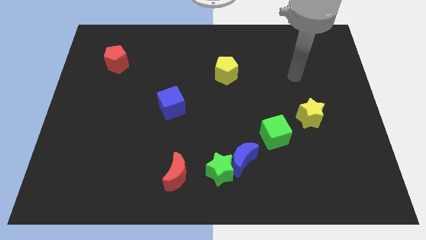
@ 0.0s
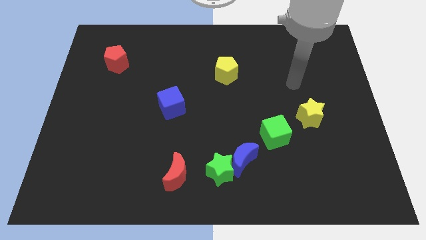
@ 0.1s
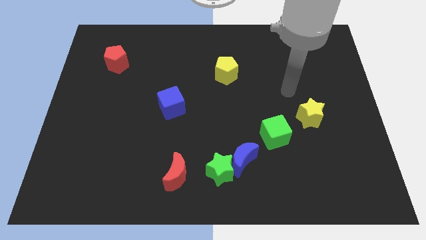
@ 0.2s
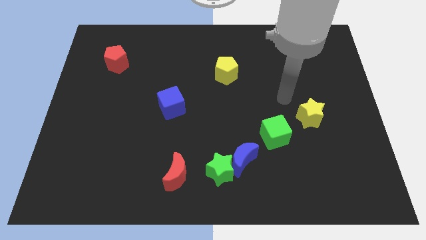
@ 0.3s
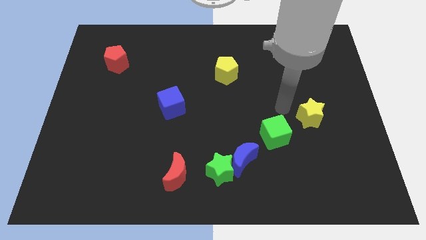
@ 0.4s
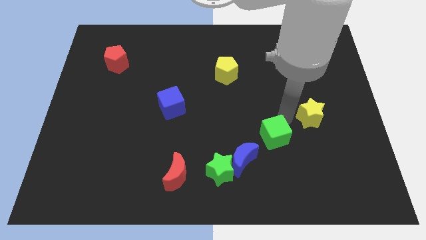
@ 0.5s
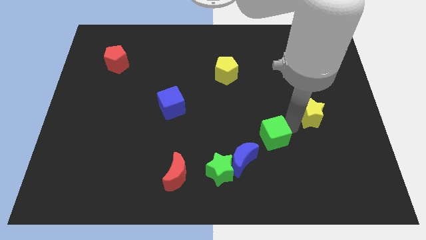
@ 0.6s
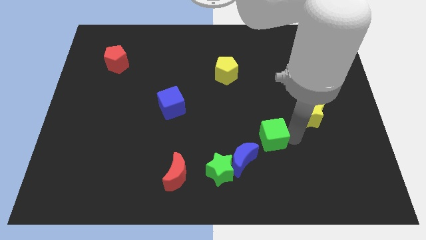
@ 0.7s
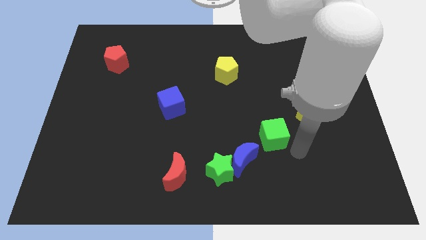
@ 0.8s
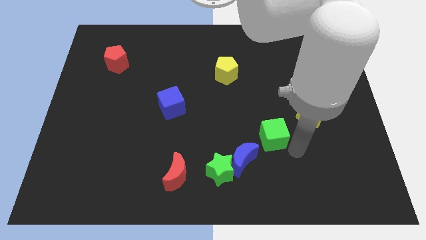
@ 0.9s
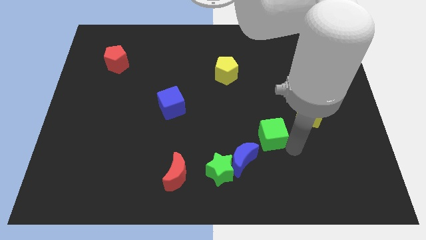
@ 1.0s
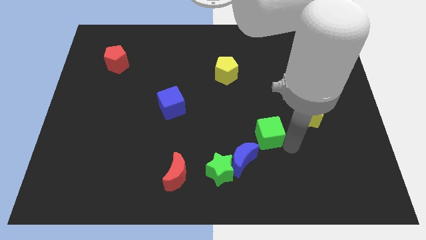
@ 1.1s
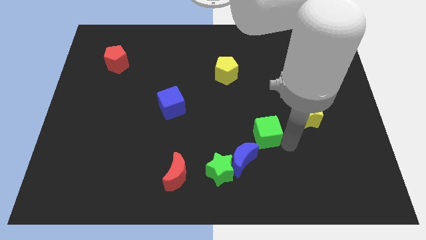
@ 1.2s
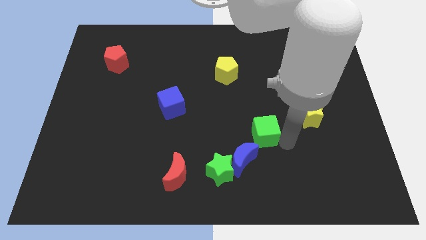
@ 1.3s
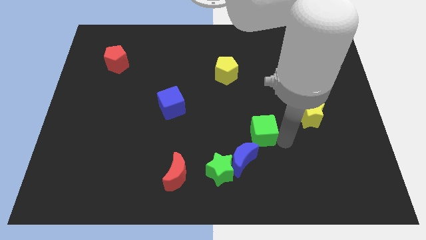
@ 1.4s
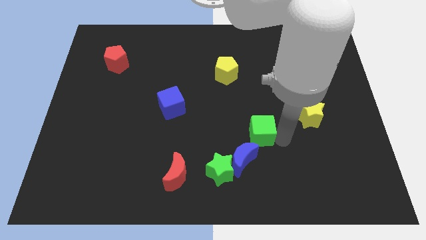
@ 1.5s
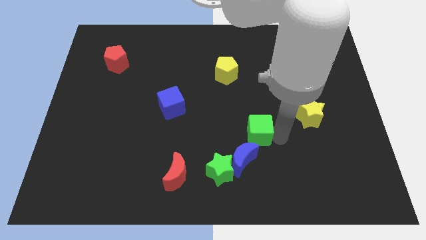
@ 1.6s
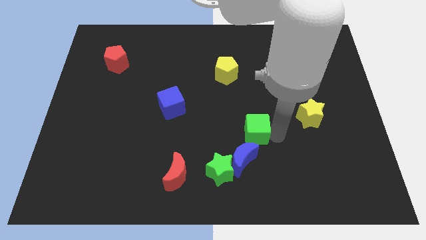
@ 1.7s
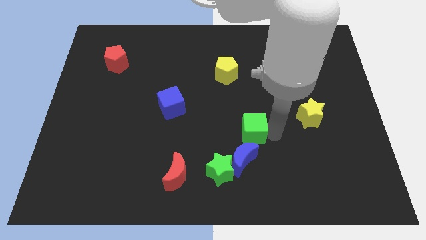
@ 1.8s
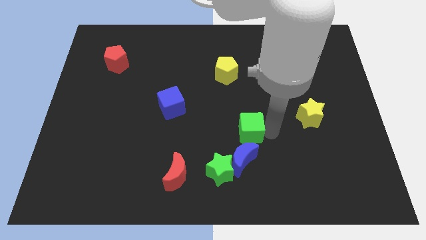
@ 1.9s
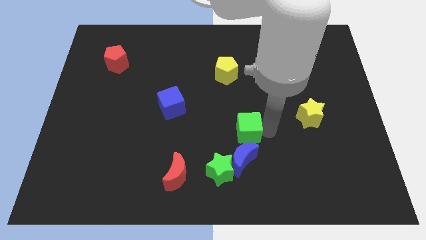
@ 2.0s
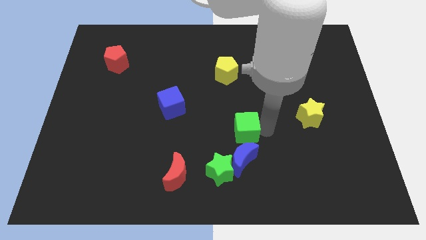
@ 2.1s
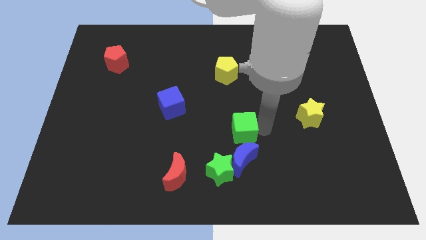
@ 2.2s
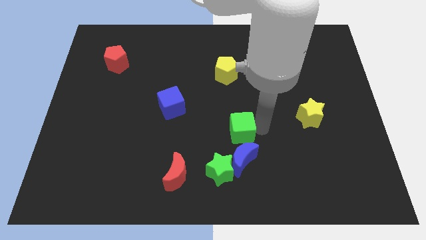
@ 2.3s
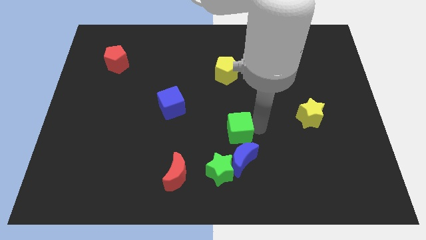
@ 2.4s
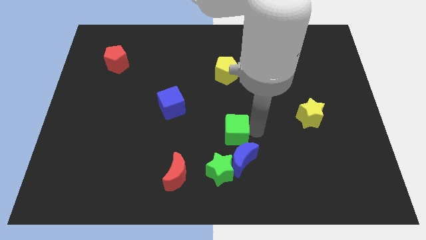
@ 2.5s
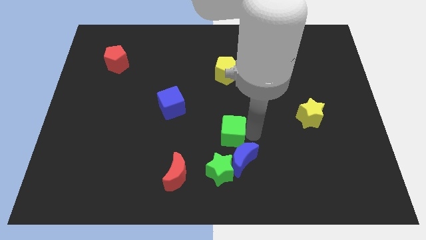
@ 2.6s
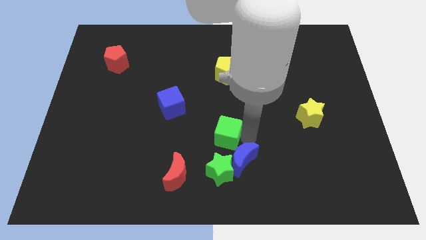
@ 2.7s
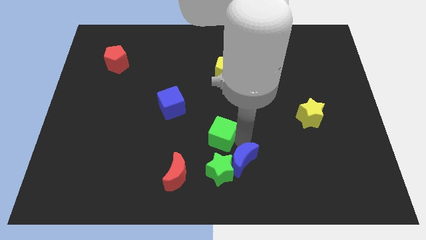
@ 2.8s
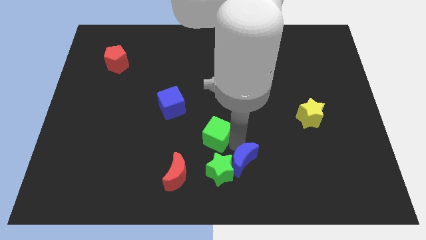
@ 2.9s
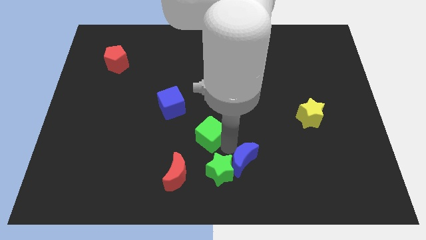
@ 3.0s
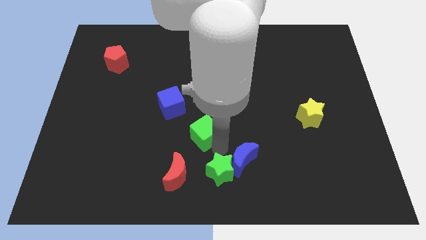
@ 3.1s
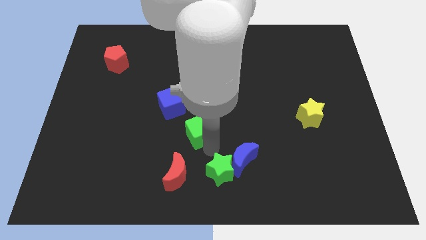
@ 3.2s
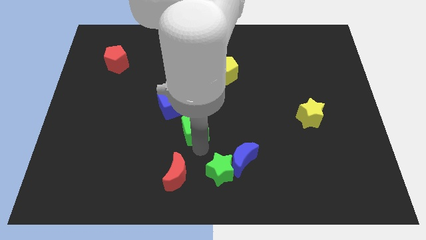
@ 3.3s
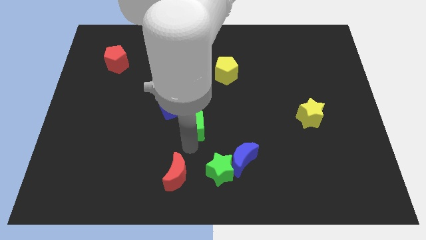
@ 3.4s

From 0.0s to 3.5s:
push the green cube diagonally up and to the left a little

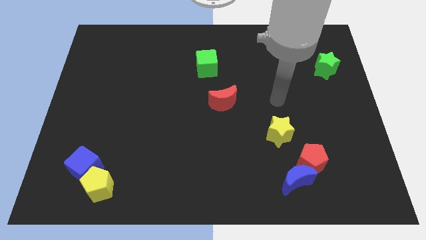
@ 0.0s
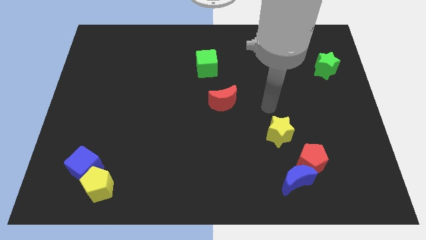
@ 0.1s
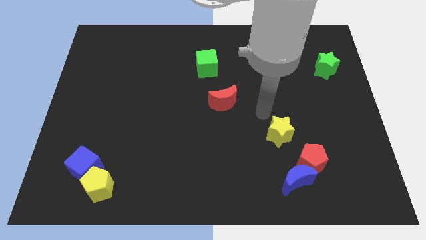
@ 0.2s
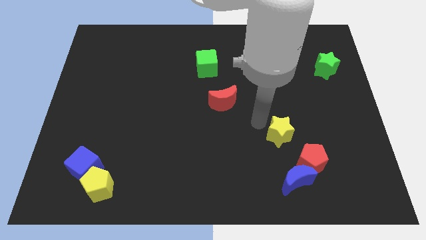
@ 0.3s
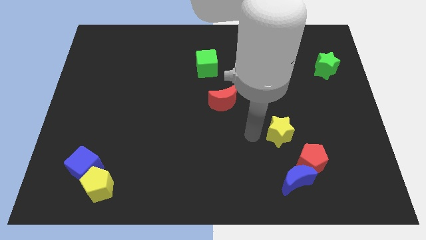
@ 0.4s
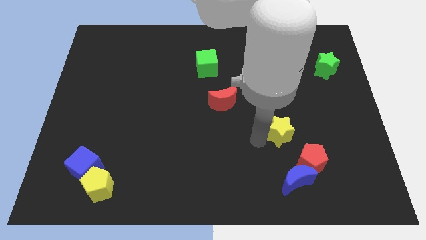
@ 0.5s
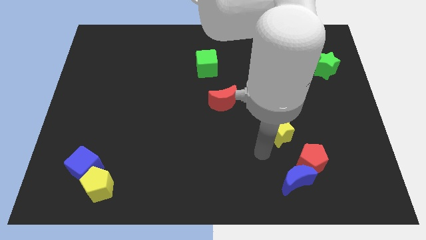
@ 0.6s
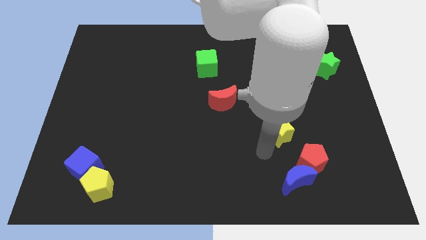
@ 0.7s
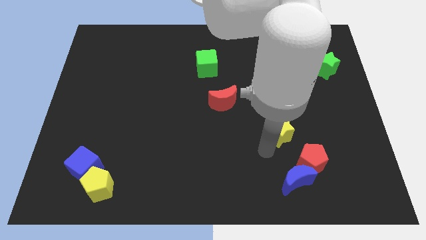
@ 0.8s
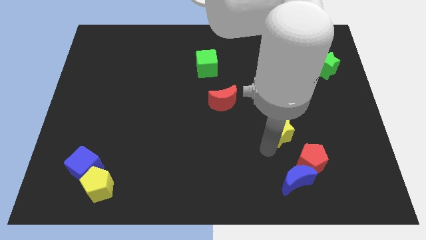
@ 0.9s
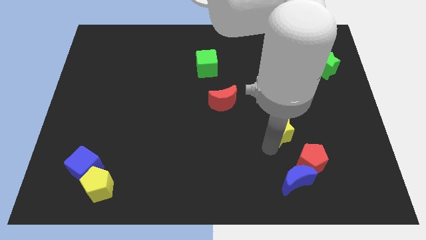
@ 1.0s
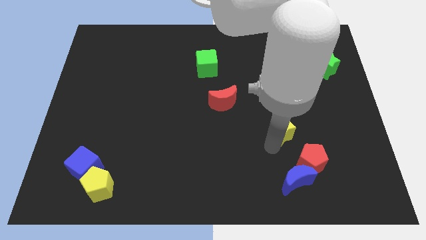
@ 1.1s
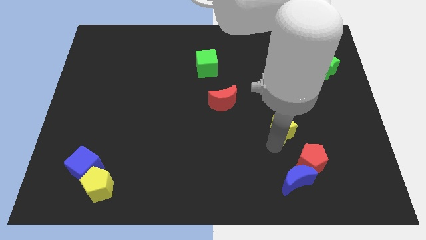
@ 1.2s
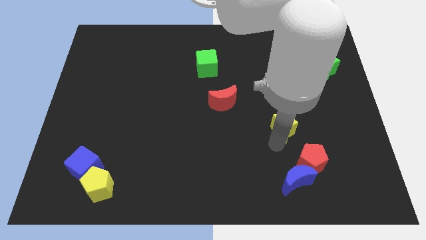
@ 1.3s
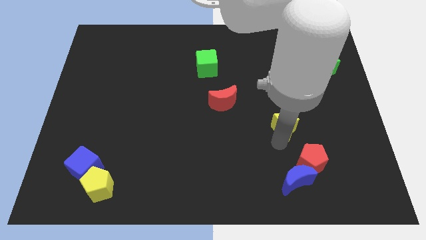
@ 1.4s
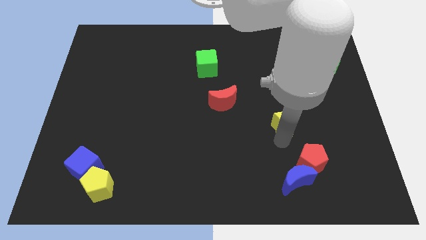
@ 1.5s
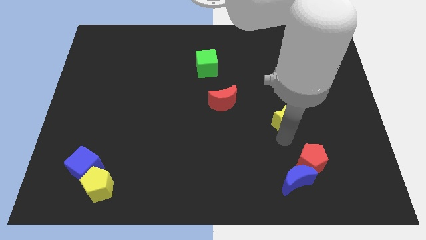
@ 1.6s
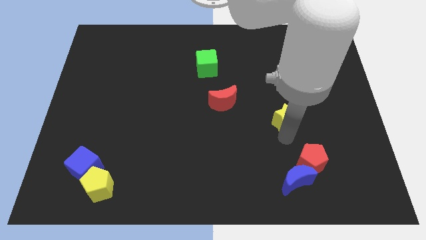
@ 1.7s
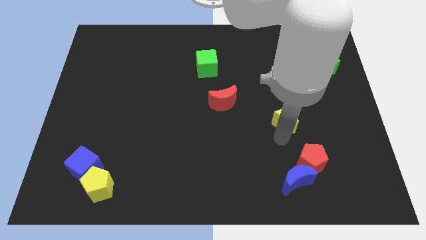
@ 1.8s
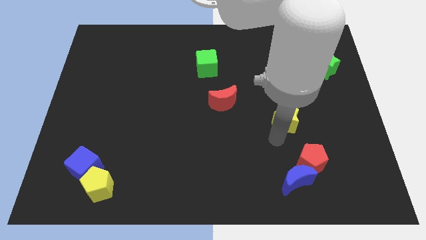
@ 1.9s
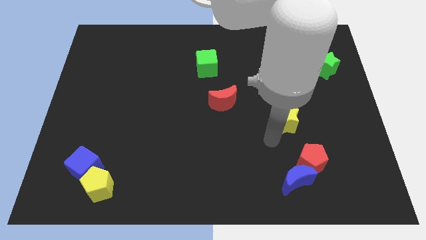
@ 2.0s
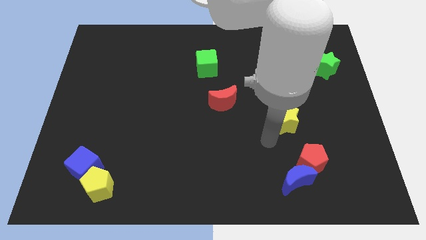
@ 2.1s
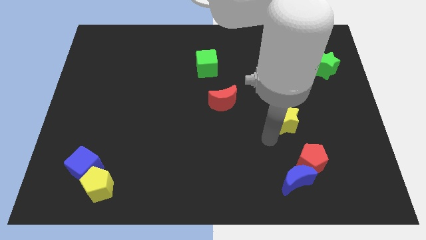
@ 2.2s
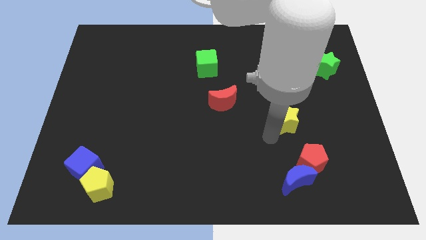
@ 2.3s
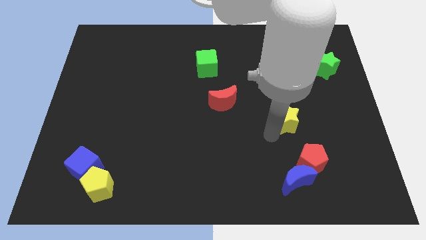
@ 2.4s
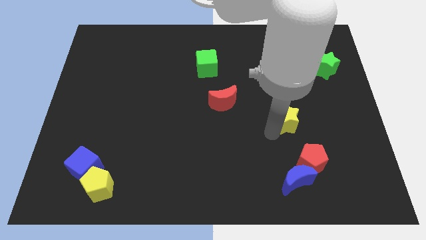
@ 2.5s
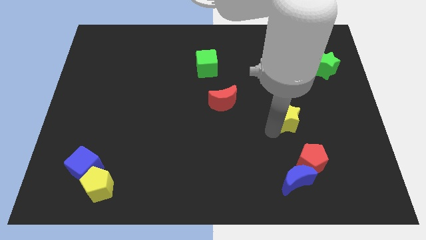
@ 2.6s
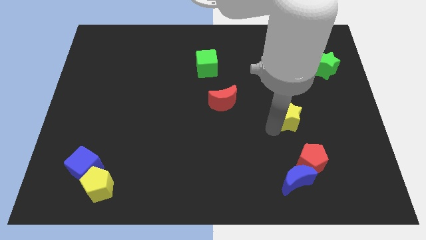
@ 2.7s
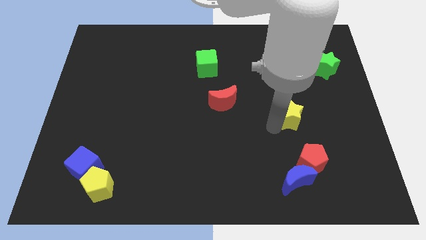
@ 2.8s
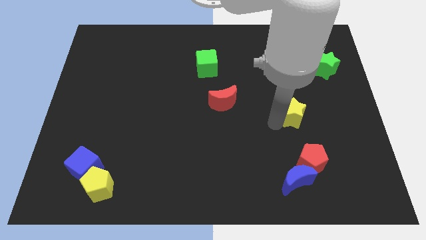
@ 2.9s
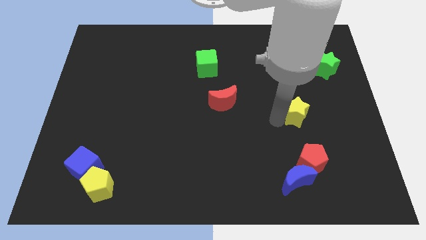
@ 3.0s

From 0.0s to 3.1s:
move the yellow star a little bit upwards and right diagonally

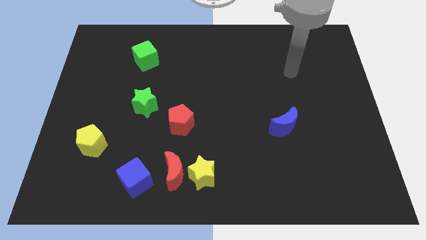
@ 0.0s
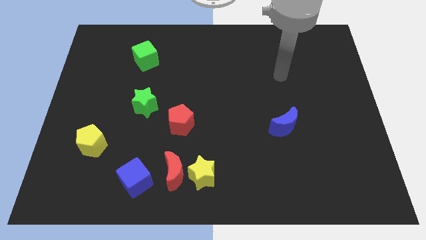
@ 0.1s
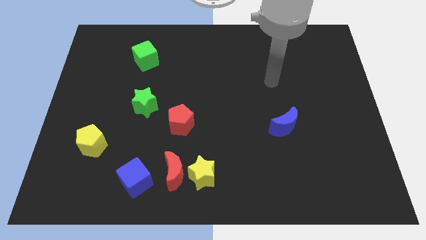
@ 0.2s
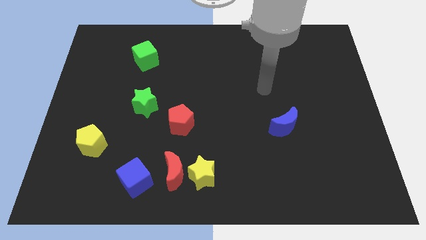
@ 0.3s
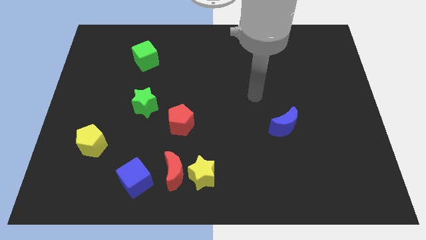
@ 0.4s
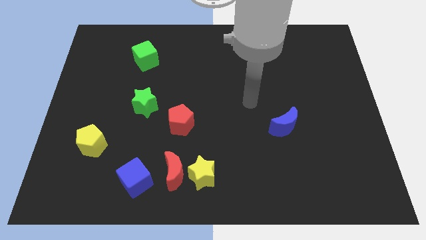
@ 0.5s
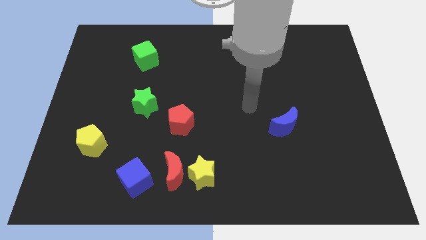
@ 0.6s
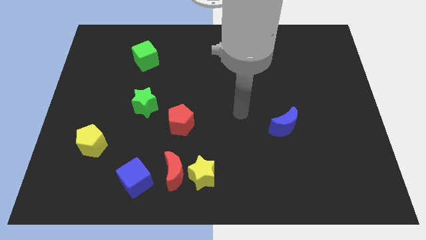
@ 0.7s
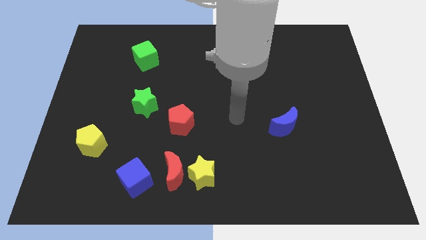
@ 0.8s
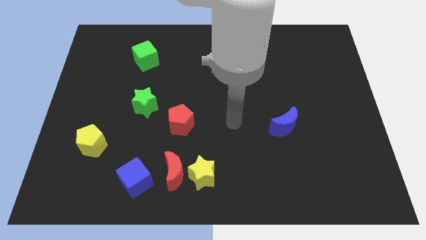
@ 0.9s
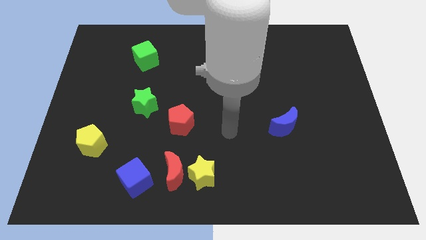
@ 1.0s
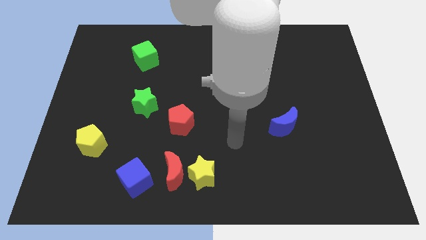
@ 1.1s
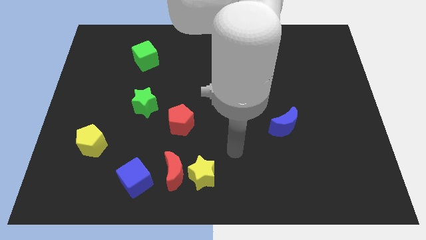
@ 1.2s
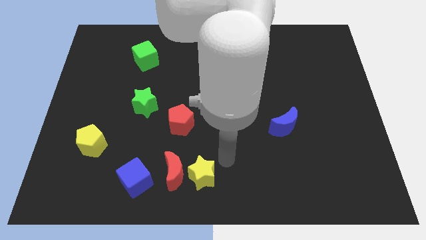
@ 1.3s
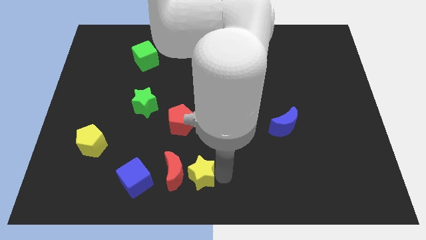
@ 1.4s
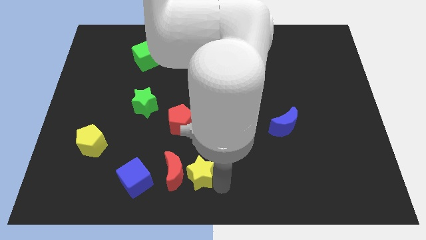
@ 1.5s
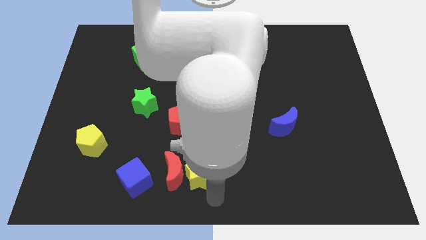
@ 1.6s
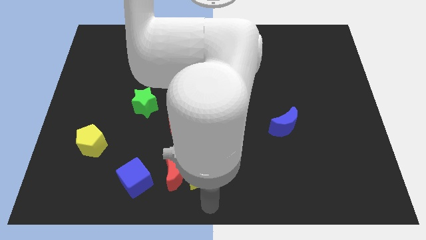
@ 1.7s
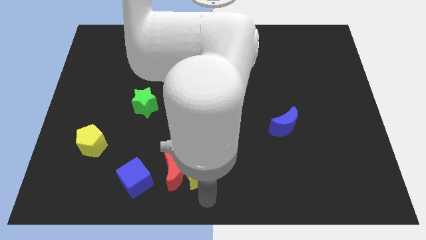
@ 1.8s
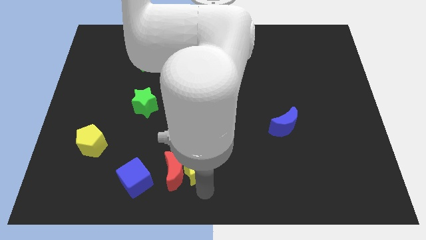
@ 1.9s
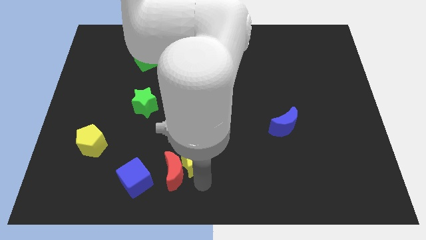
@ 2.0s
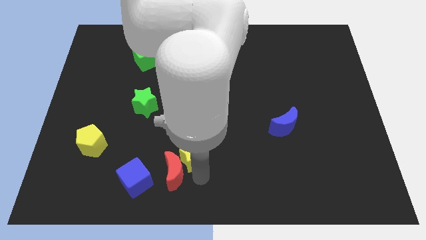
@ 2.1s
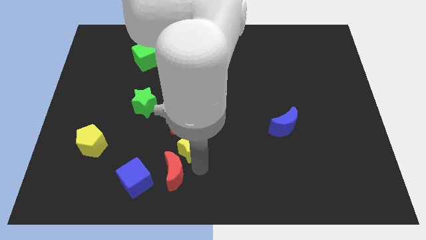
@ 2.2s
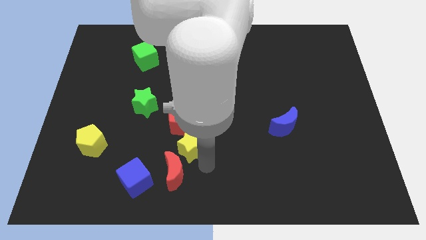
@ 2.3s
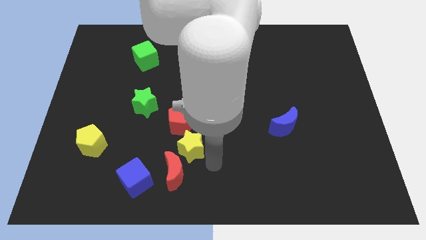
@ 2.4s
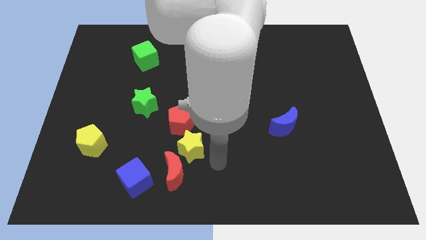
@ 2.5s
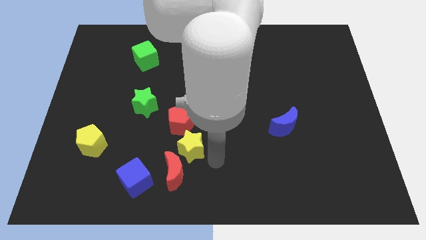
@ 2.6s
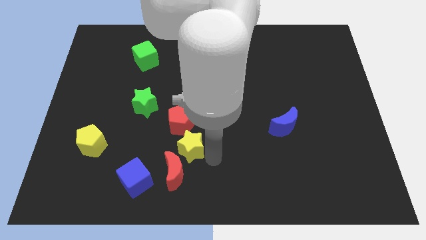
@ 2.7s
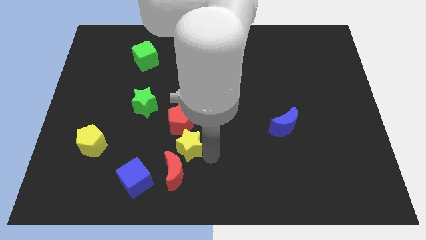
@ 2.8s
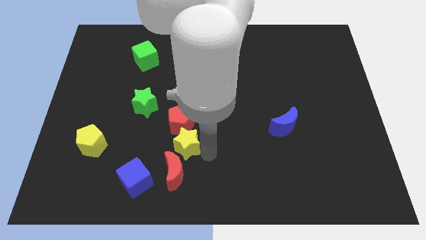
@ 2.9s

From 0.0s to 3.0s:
slightly push the yellow star upwards and to the left
